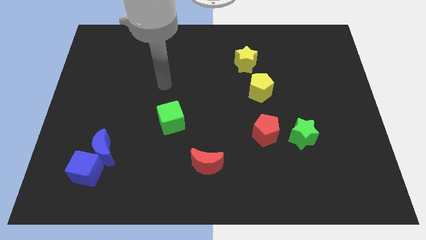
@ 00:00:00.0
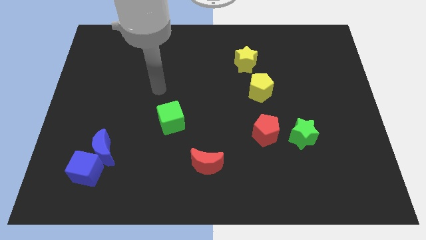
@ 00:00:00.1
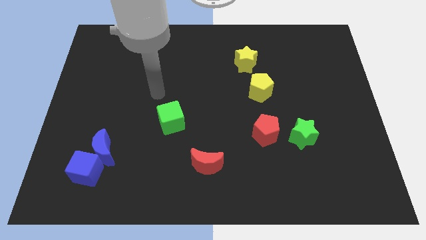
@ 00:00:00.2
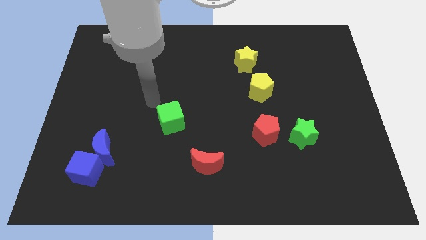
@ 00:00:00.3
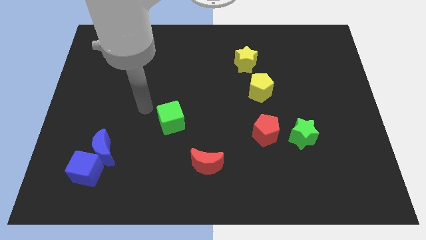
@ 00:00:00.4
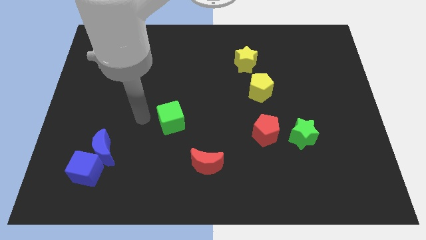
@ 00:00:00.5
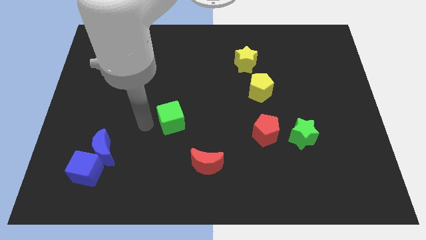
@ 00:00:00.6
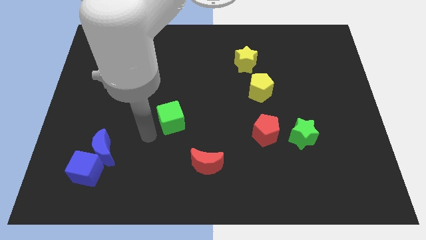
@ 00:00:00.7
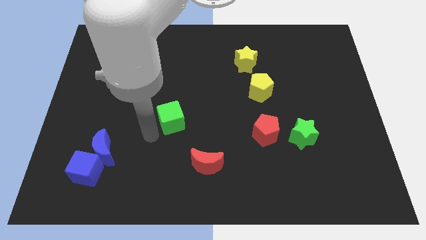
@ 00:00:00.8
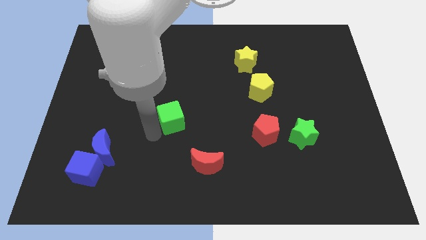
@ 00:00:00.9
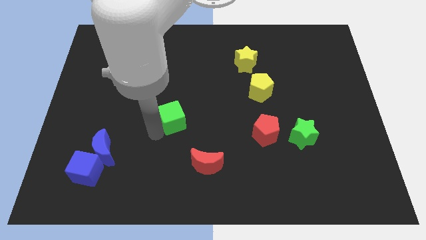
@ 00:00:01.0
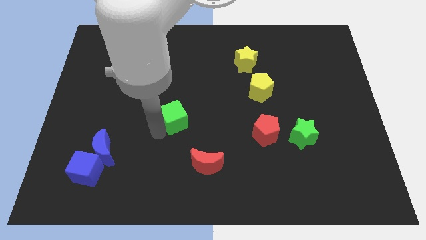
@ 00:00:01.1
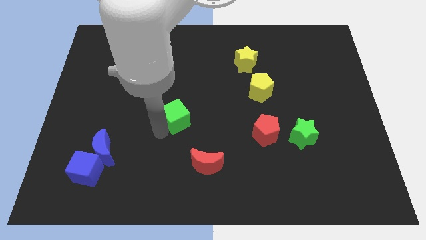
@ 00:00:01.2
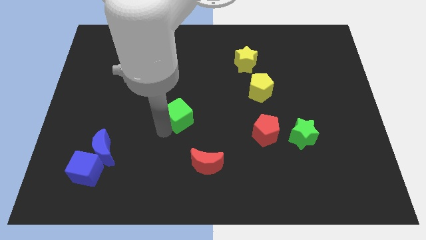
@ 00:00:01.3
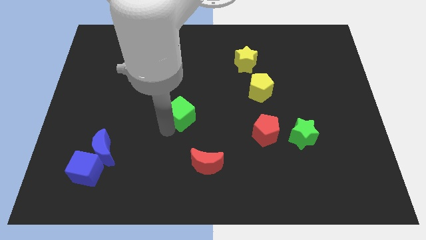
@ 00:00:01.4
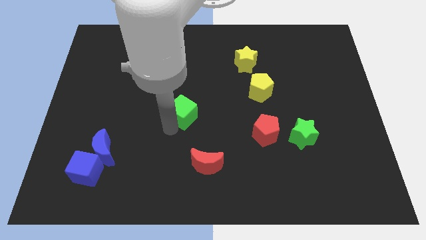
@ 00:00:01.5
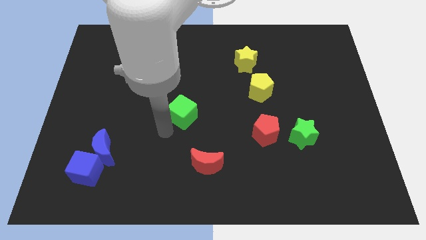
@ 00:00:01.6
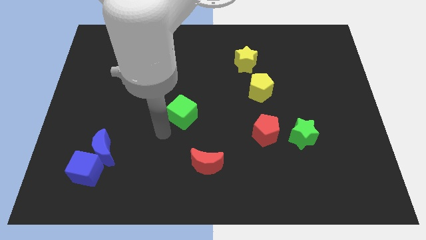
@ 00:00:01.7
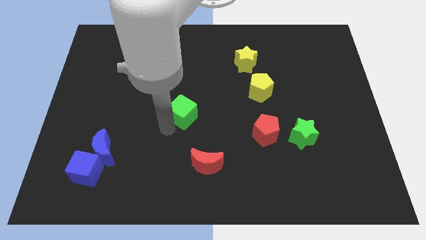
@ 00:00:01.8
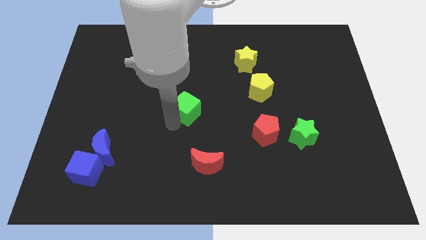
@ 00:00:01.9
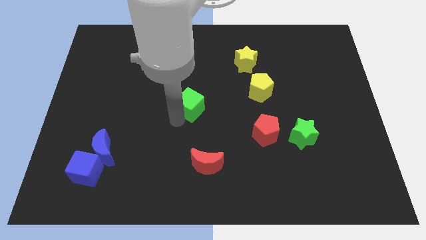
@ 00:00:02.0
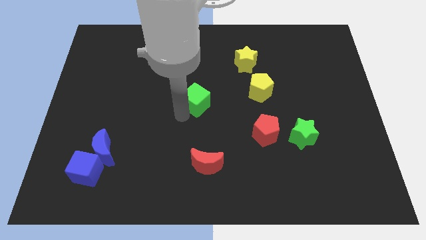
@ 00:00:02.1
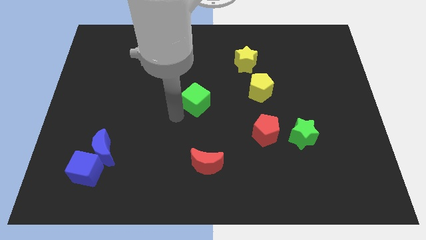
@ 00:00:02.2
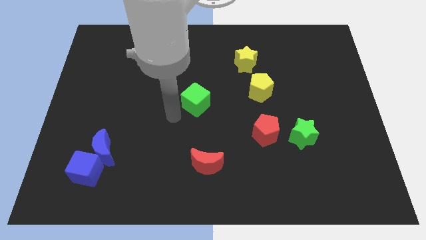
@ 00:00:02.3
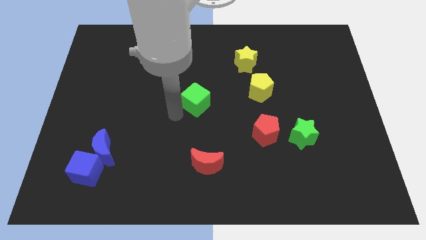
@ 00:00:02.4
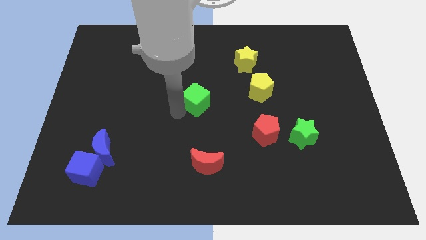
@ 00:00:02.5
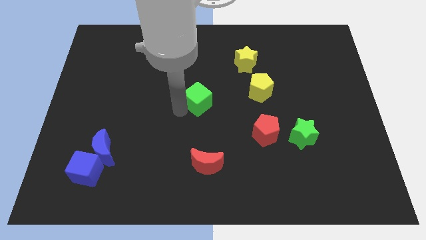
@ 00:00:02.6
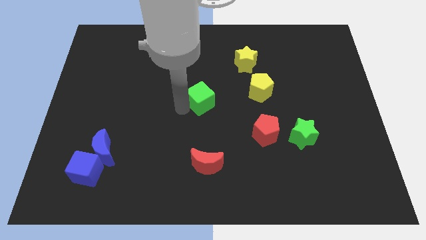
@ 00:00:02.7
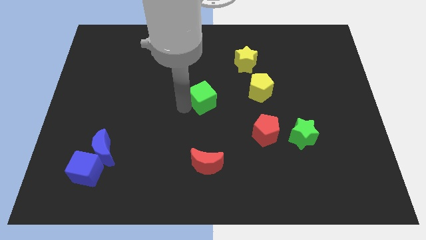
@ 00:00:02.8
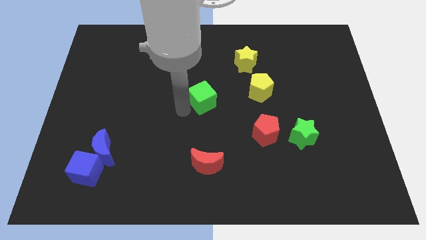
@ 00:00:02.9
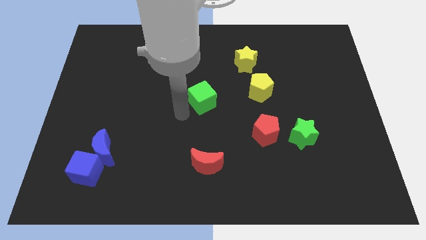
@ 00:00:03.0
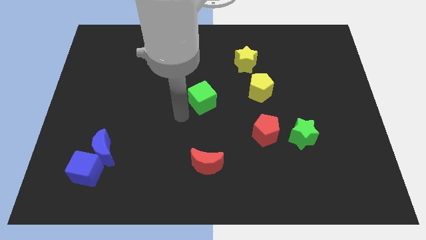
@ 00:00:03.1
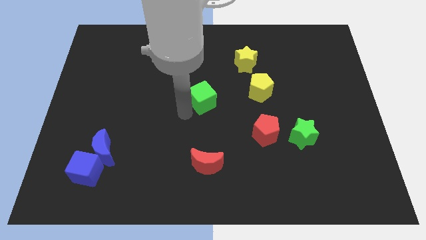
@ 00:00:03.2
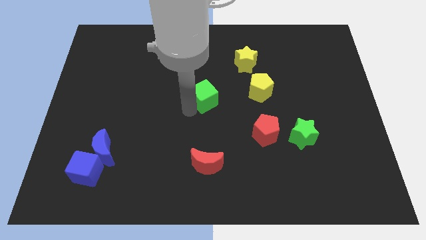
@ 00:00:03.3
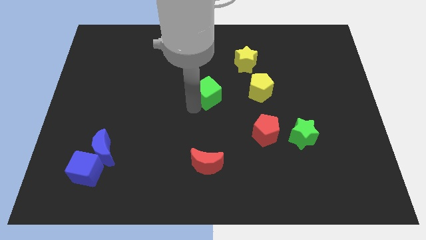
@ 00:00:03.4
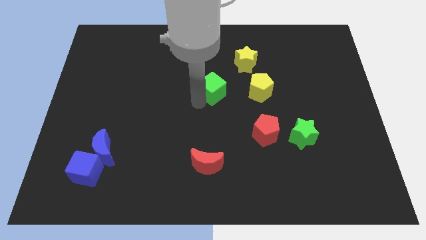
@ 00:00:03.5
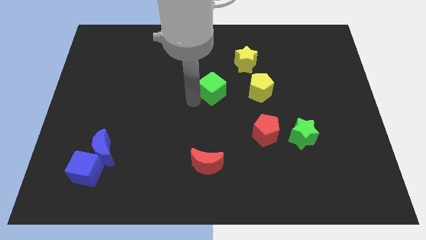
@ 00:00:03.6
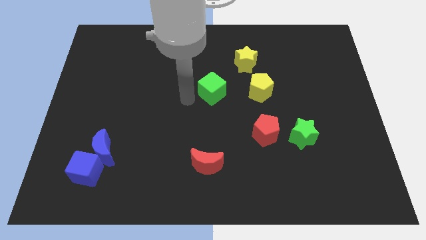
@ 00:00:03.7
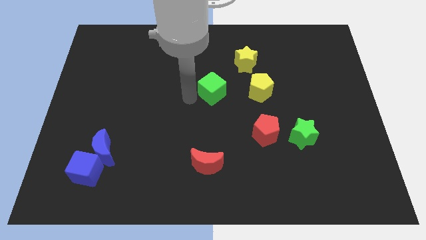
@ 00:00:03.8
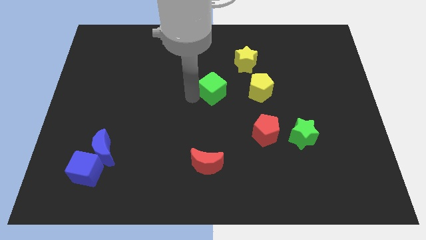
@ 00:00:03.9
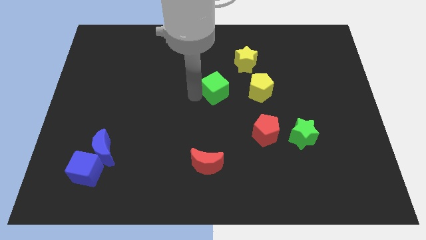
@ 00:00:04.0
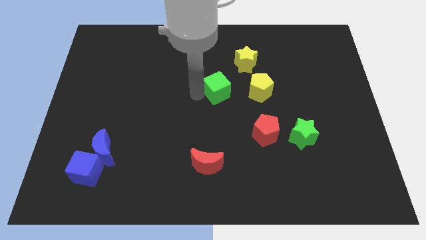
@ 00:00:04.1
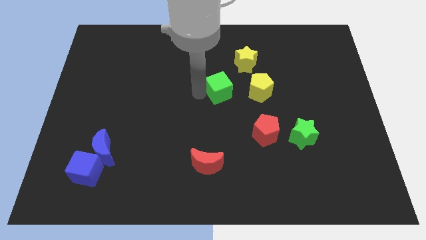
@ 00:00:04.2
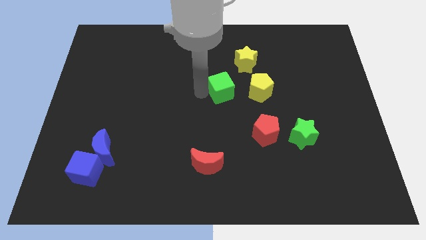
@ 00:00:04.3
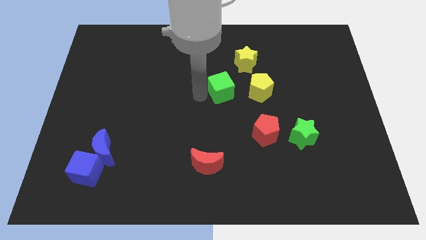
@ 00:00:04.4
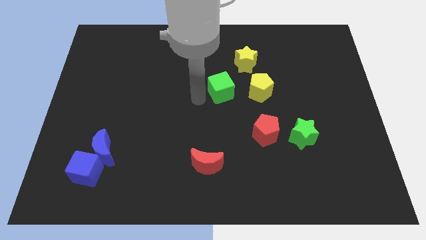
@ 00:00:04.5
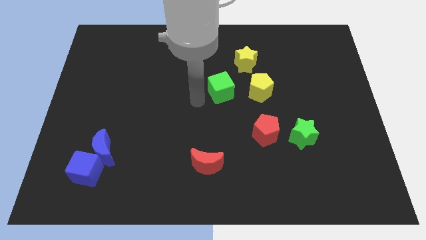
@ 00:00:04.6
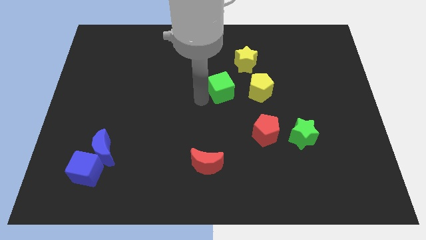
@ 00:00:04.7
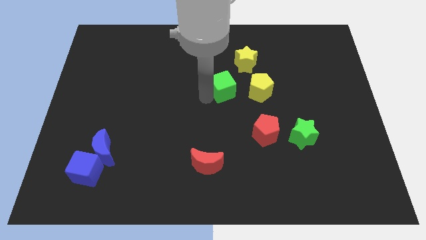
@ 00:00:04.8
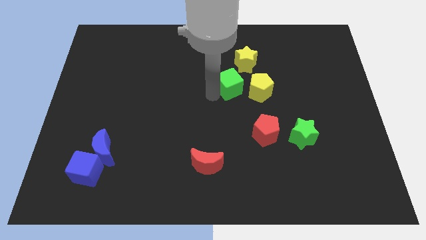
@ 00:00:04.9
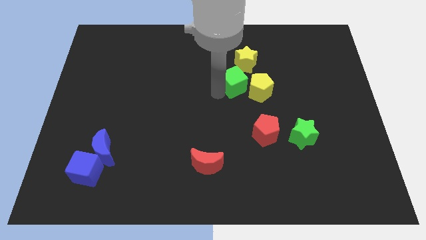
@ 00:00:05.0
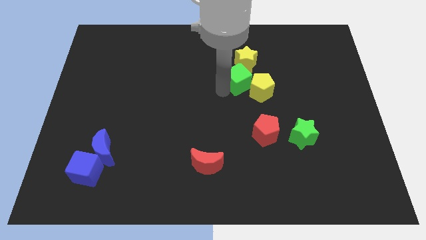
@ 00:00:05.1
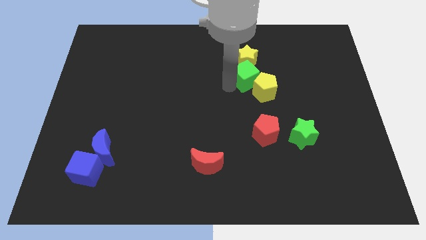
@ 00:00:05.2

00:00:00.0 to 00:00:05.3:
move the green cube diagonally down and to the right of the yellow star

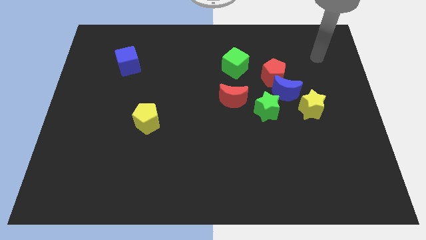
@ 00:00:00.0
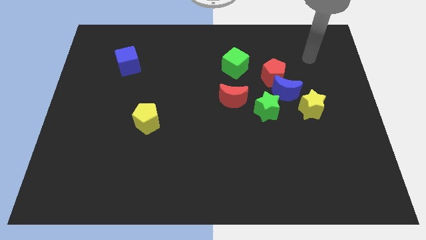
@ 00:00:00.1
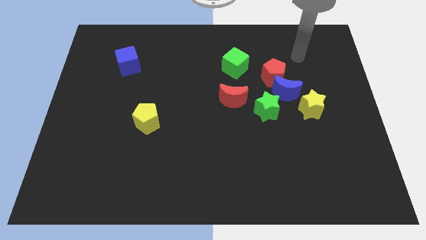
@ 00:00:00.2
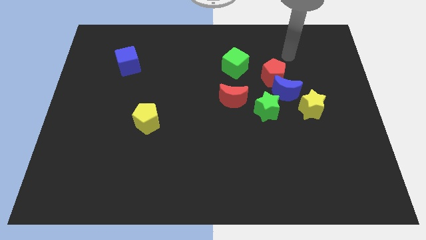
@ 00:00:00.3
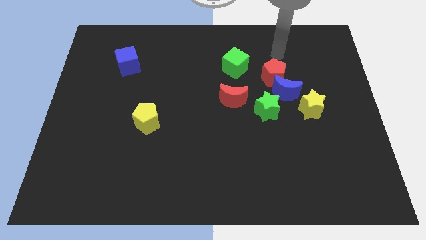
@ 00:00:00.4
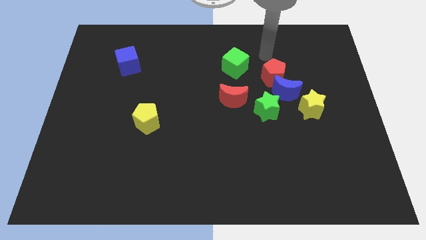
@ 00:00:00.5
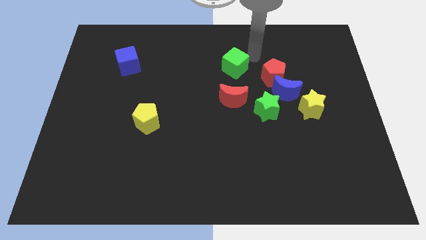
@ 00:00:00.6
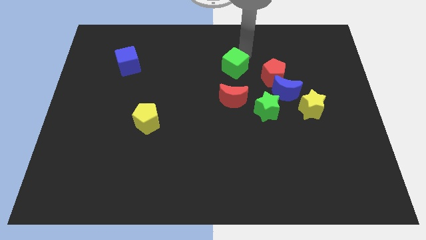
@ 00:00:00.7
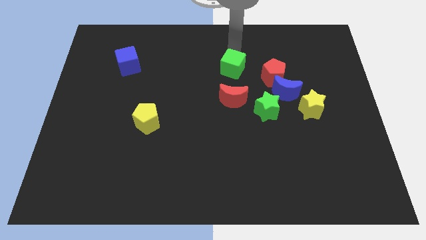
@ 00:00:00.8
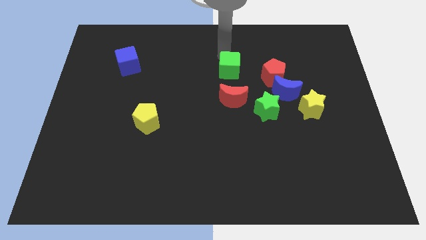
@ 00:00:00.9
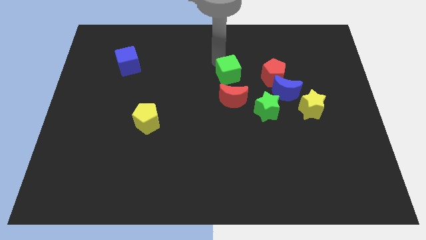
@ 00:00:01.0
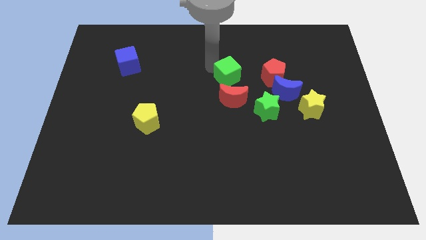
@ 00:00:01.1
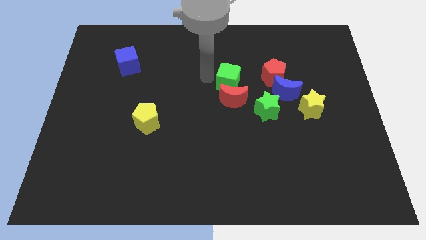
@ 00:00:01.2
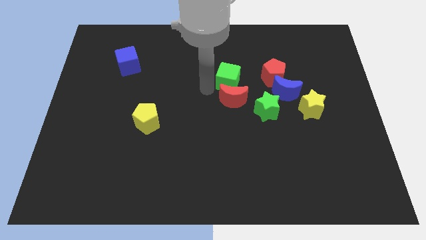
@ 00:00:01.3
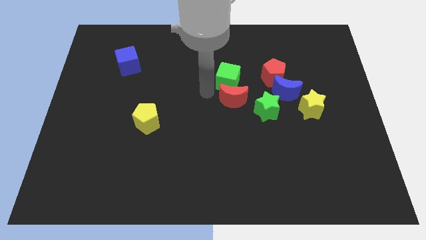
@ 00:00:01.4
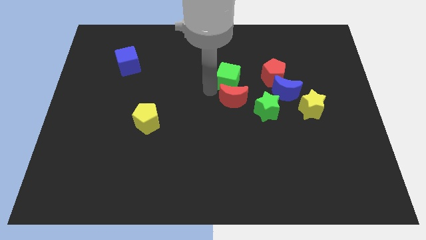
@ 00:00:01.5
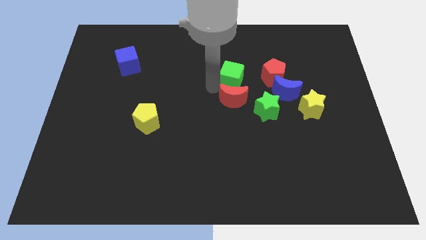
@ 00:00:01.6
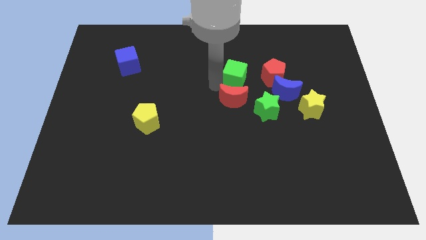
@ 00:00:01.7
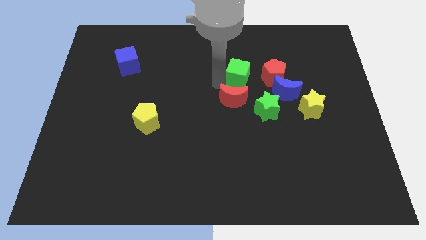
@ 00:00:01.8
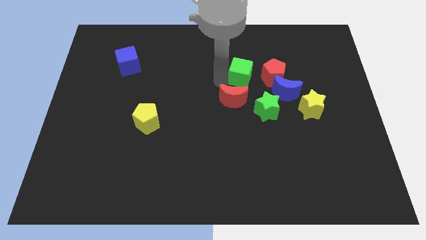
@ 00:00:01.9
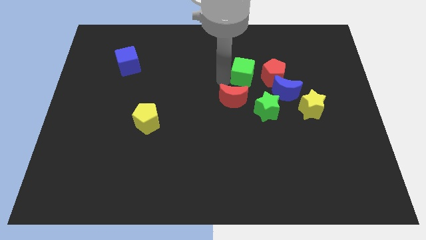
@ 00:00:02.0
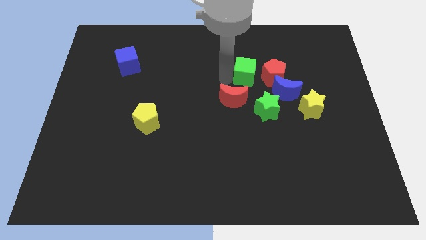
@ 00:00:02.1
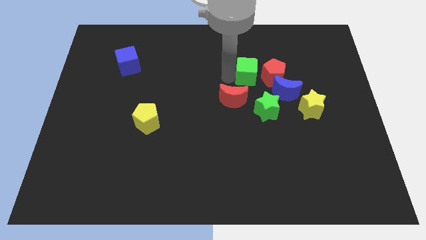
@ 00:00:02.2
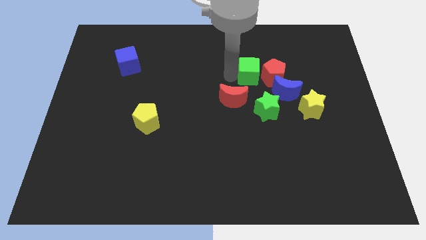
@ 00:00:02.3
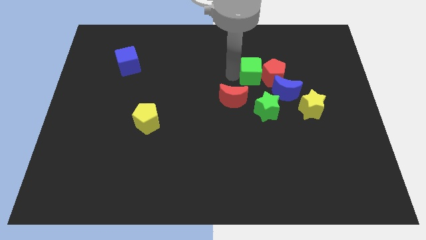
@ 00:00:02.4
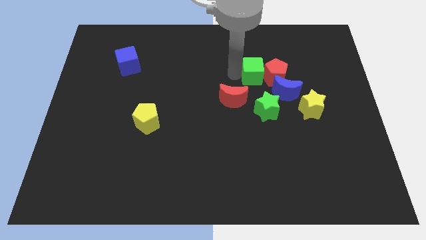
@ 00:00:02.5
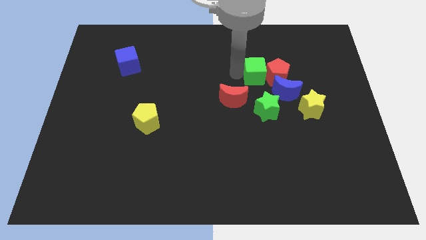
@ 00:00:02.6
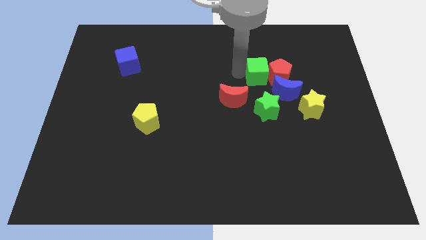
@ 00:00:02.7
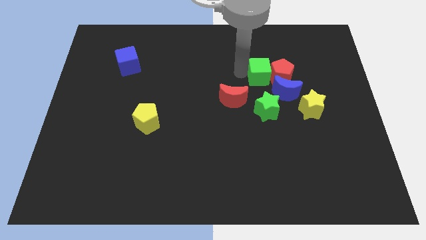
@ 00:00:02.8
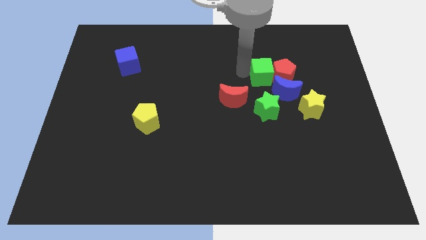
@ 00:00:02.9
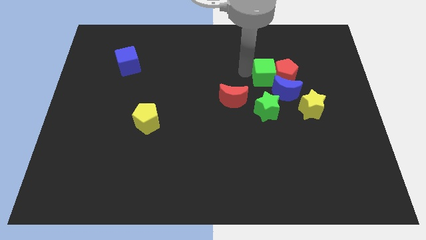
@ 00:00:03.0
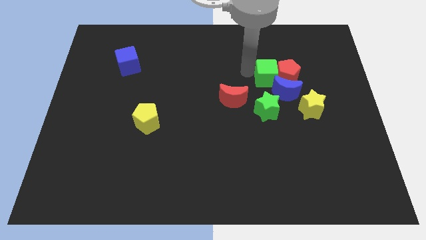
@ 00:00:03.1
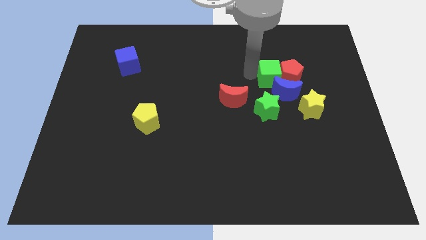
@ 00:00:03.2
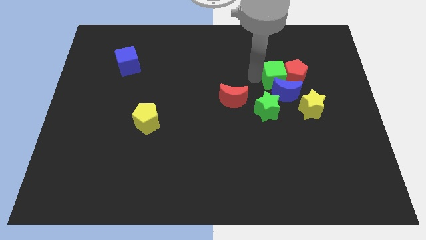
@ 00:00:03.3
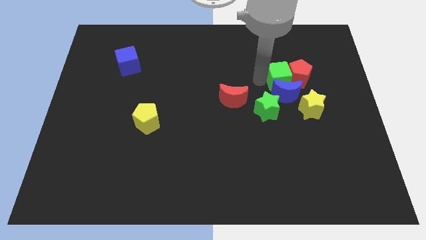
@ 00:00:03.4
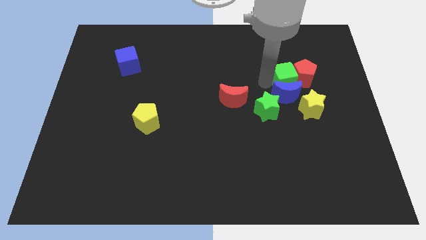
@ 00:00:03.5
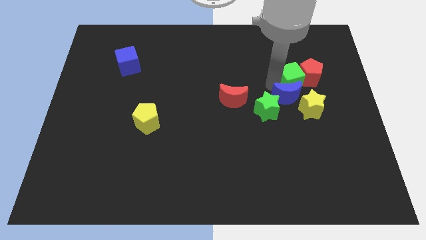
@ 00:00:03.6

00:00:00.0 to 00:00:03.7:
move the green cube above the yellow star
